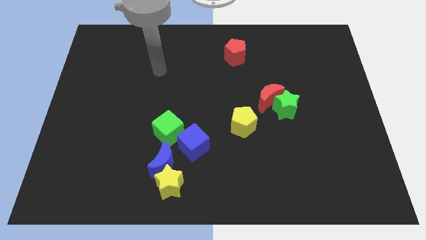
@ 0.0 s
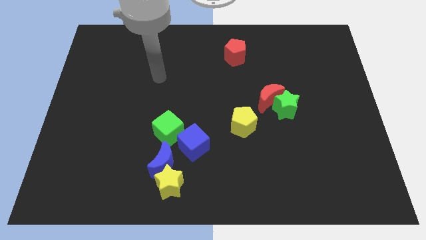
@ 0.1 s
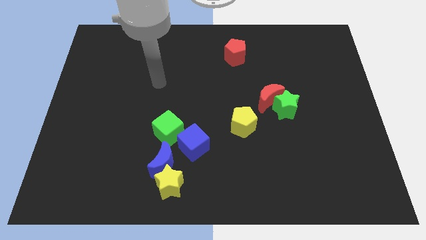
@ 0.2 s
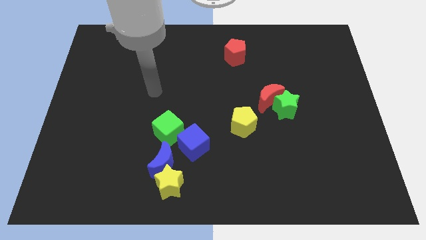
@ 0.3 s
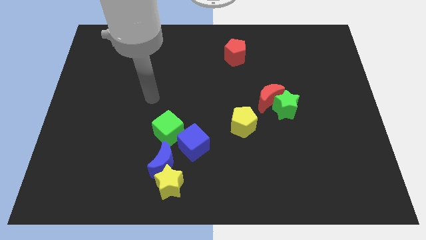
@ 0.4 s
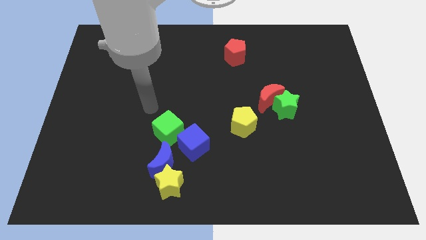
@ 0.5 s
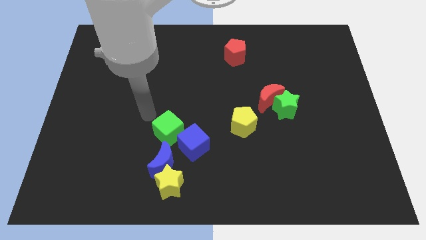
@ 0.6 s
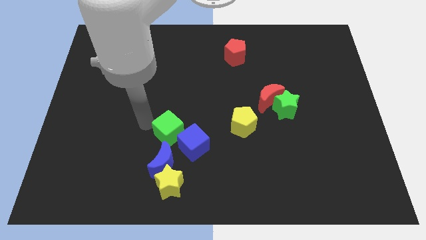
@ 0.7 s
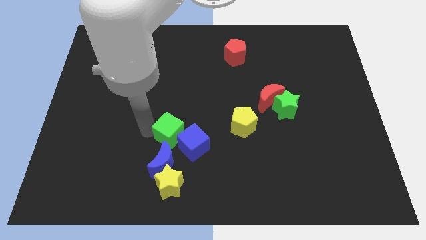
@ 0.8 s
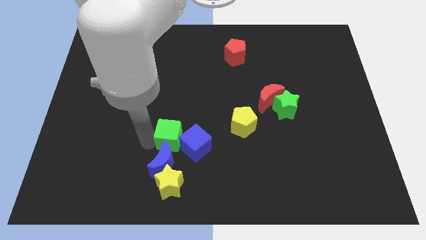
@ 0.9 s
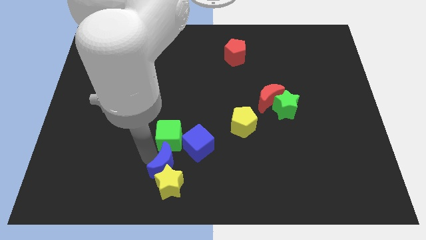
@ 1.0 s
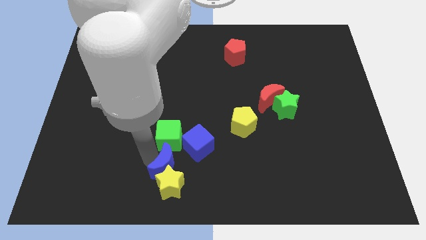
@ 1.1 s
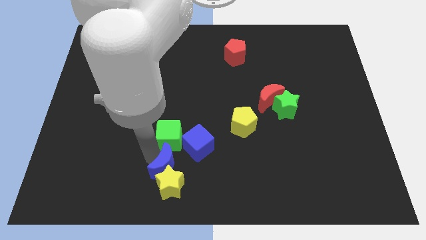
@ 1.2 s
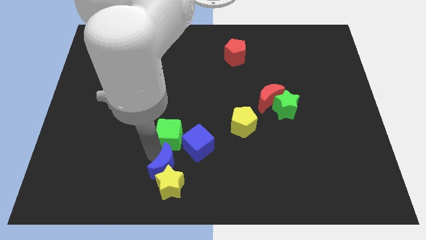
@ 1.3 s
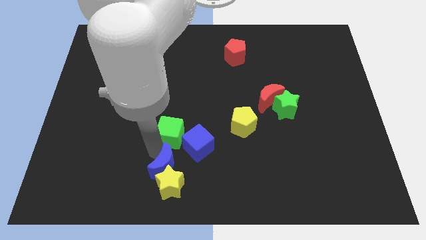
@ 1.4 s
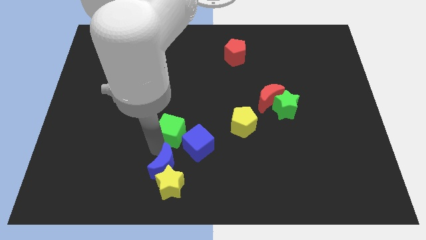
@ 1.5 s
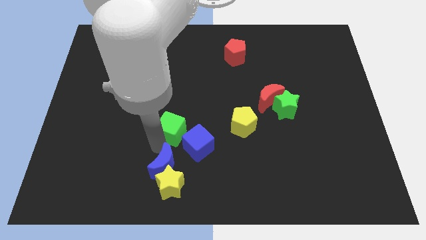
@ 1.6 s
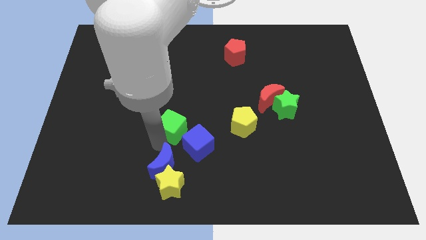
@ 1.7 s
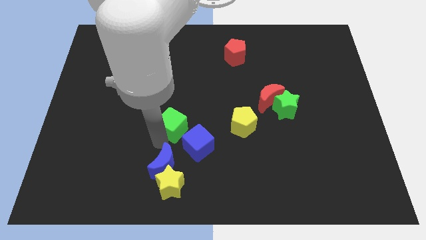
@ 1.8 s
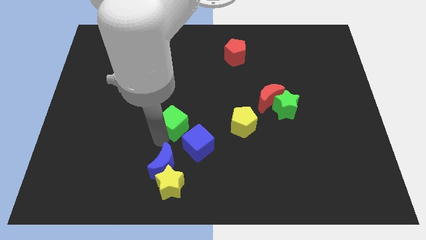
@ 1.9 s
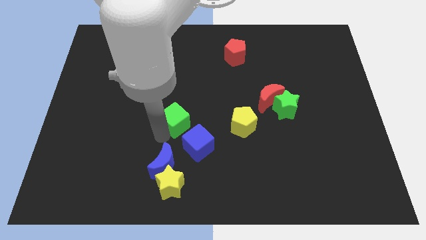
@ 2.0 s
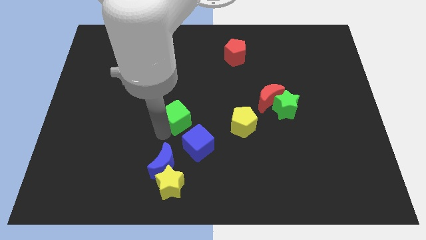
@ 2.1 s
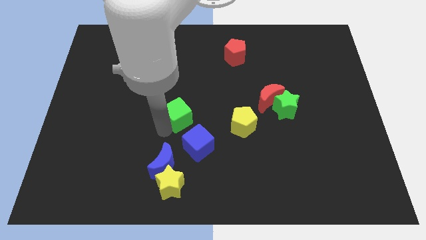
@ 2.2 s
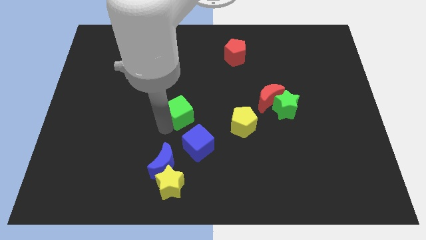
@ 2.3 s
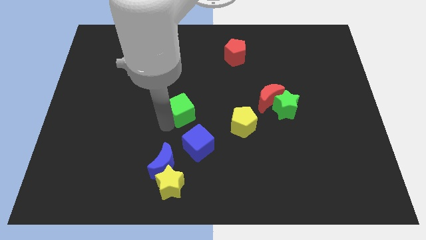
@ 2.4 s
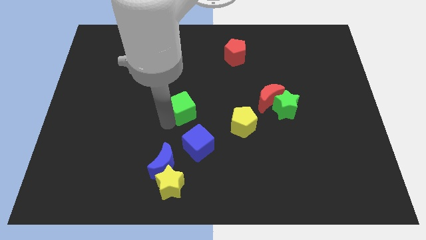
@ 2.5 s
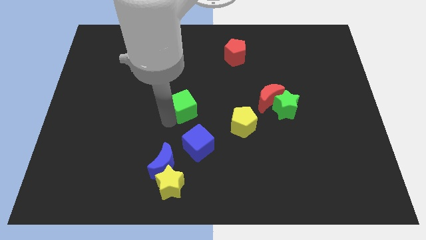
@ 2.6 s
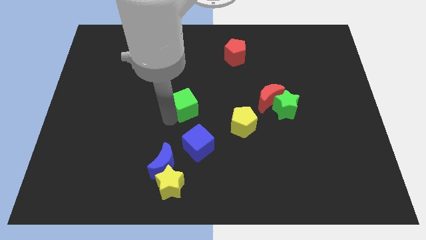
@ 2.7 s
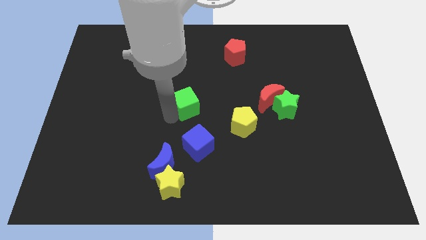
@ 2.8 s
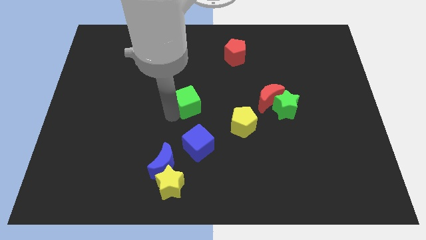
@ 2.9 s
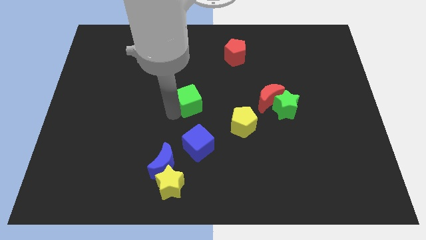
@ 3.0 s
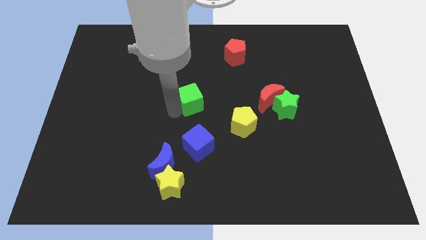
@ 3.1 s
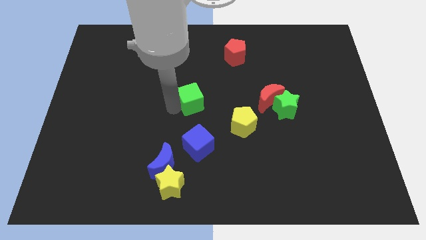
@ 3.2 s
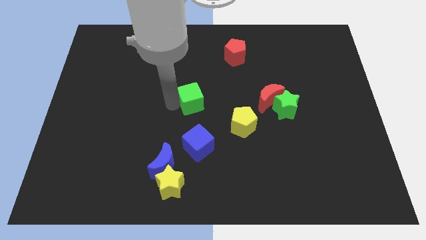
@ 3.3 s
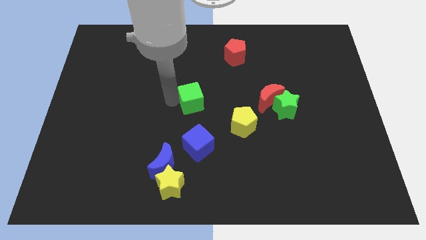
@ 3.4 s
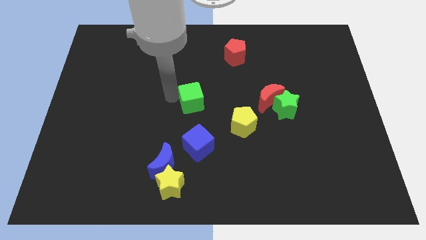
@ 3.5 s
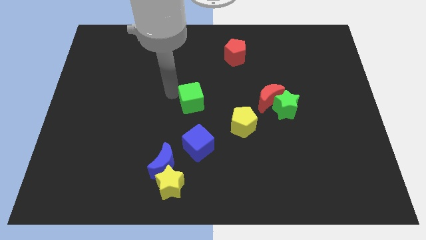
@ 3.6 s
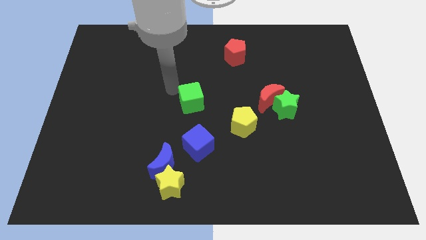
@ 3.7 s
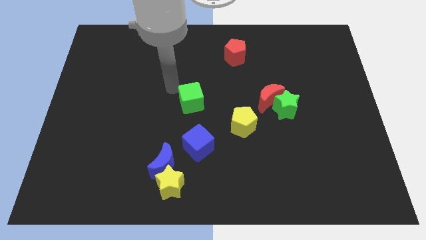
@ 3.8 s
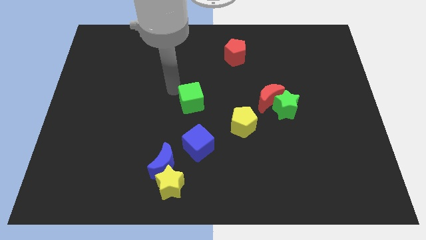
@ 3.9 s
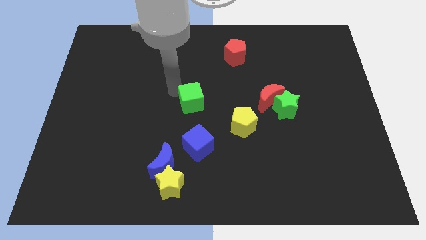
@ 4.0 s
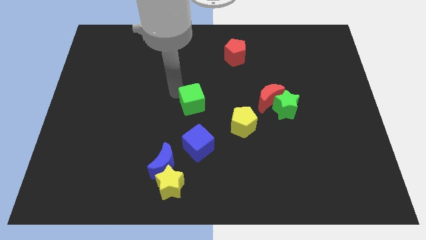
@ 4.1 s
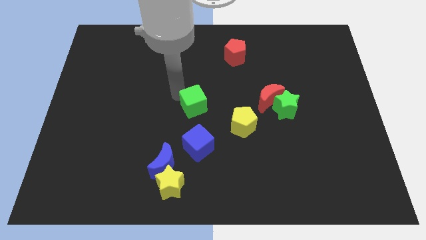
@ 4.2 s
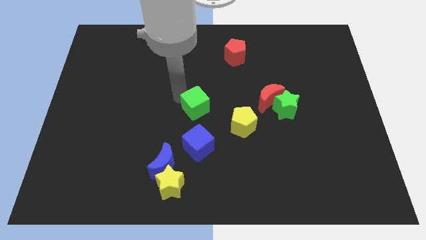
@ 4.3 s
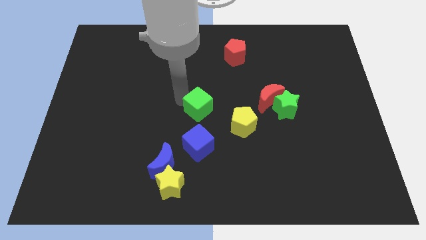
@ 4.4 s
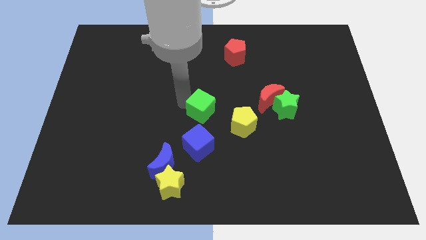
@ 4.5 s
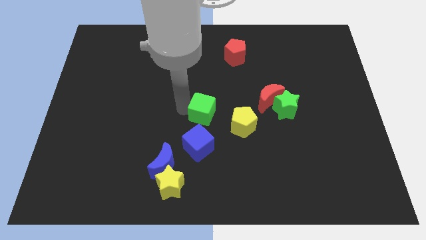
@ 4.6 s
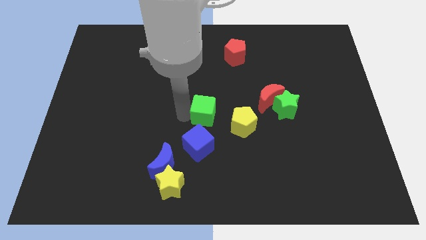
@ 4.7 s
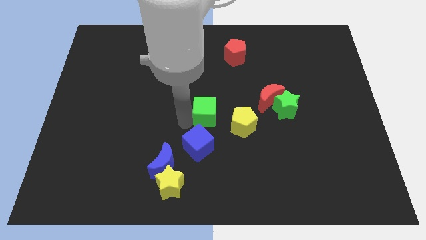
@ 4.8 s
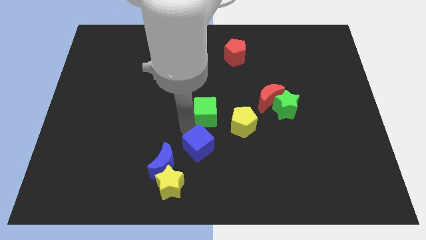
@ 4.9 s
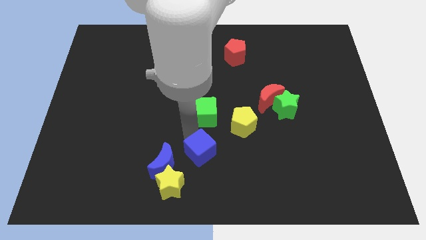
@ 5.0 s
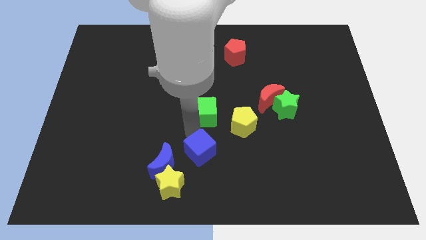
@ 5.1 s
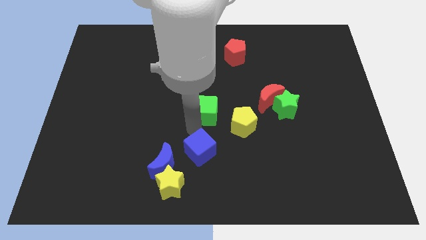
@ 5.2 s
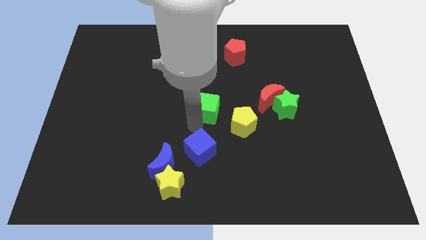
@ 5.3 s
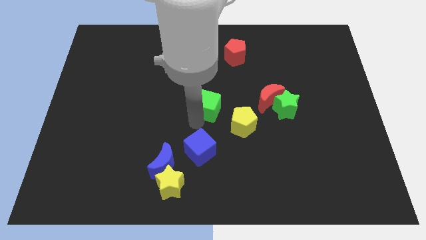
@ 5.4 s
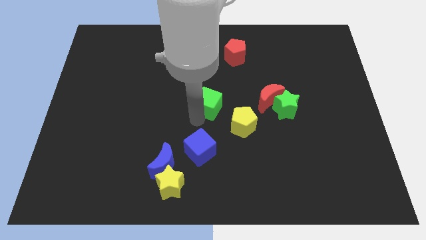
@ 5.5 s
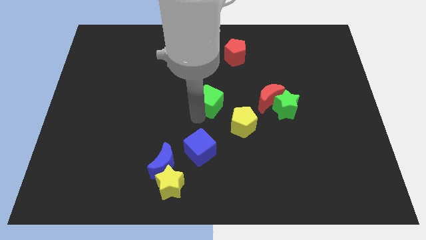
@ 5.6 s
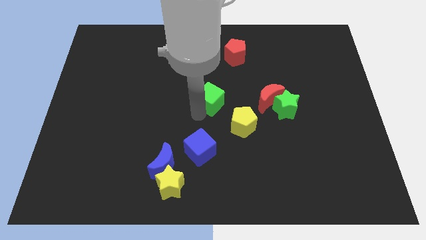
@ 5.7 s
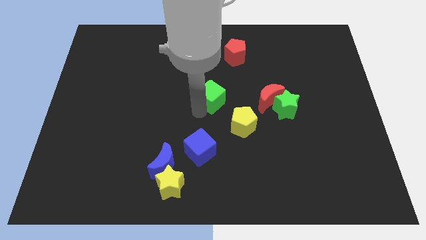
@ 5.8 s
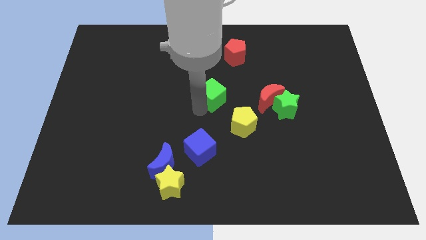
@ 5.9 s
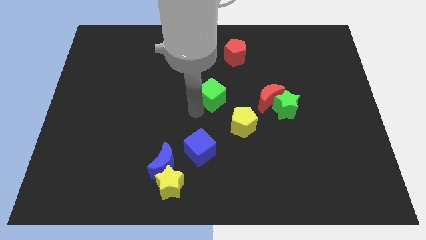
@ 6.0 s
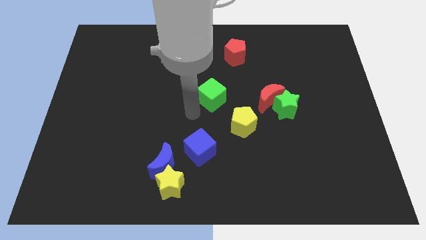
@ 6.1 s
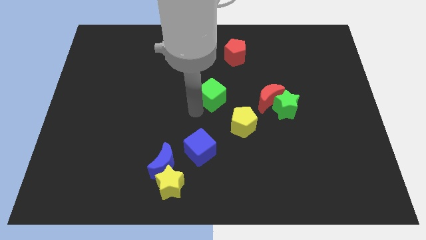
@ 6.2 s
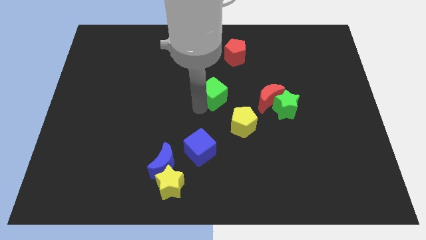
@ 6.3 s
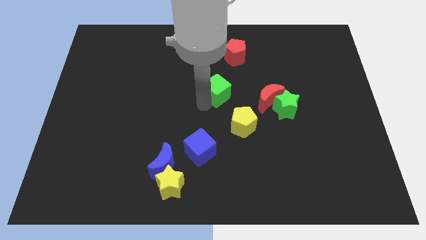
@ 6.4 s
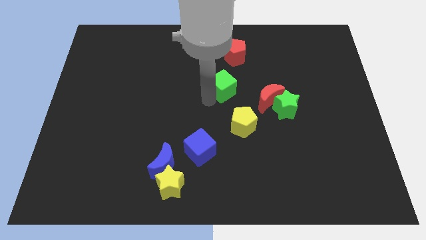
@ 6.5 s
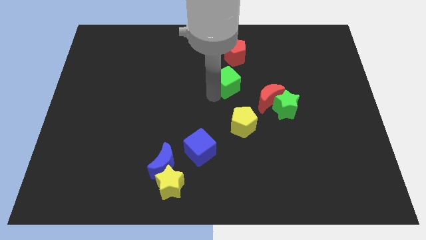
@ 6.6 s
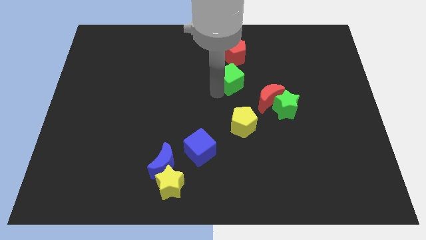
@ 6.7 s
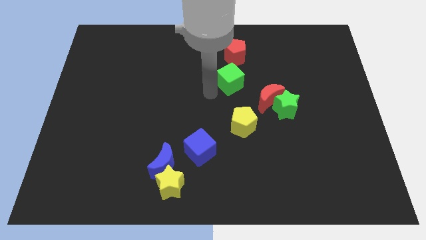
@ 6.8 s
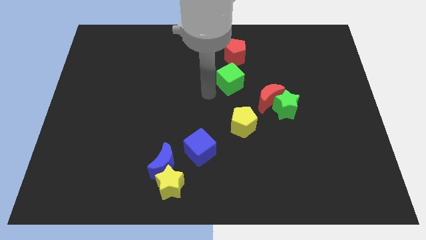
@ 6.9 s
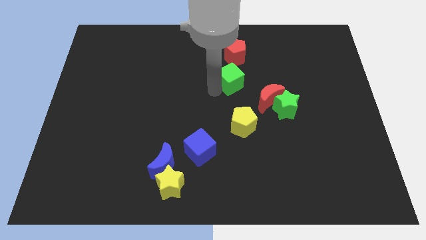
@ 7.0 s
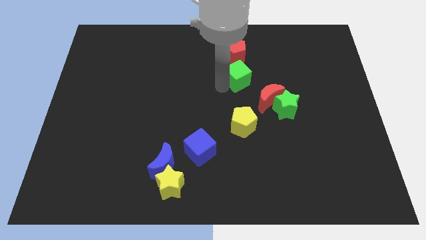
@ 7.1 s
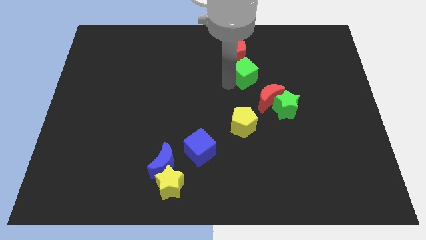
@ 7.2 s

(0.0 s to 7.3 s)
put the green cube to the bottom right side of the red pentagon

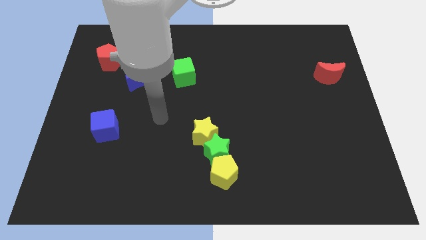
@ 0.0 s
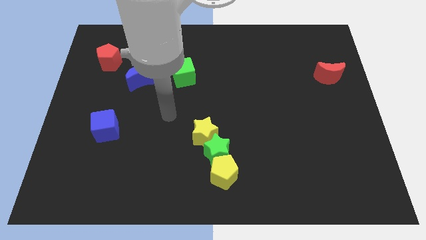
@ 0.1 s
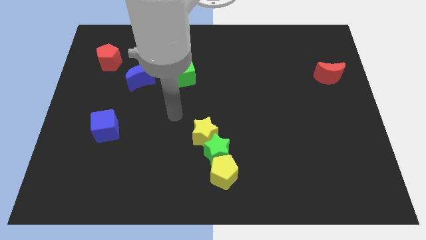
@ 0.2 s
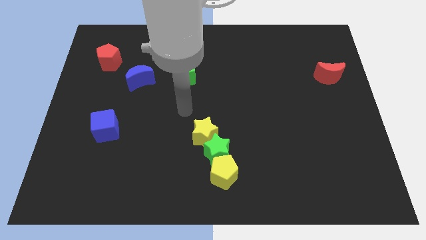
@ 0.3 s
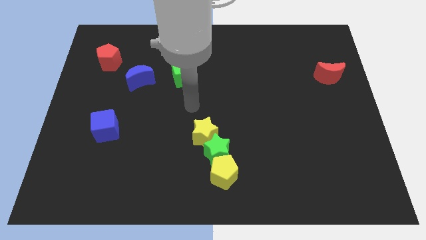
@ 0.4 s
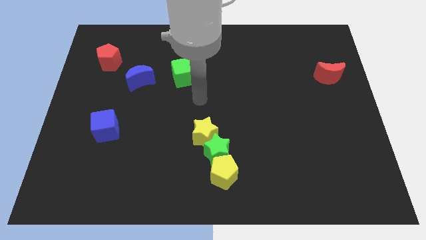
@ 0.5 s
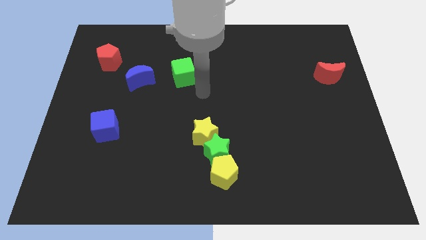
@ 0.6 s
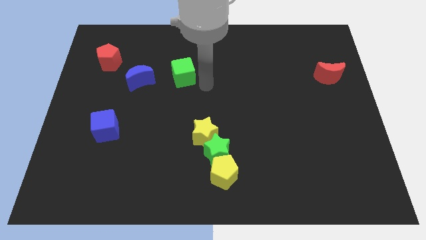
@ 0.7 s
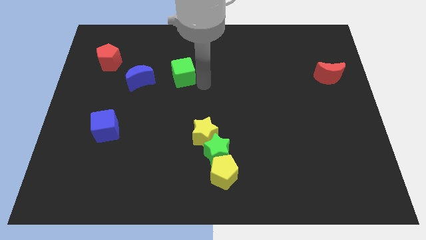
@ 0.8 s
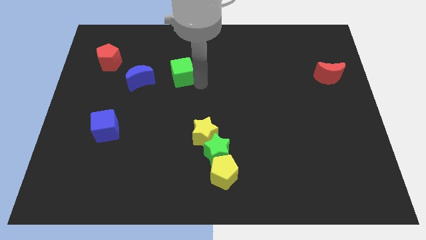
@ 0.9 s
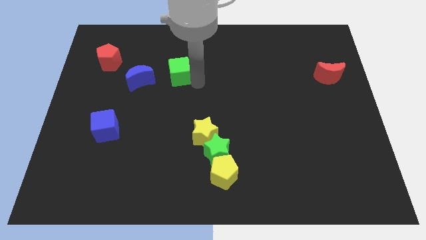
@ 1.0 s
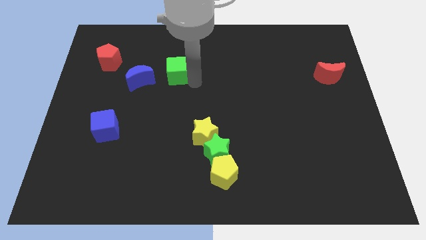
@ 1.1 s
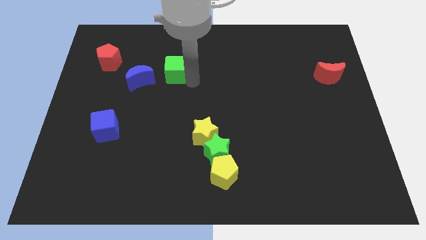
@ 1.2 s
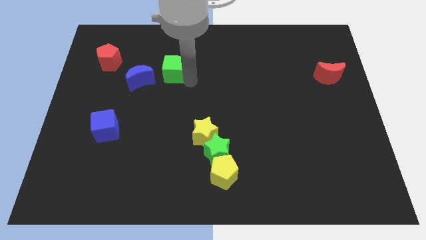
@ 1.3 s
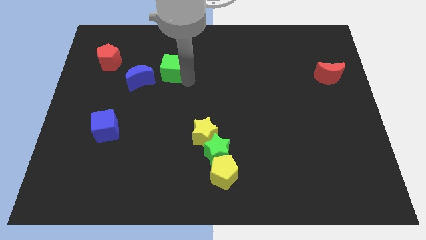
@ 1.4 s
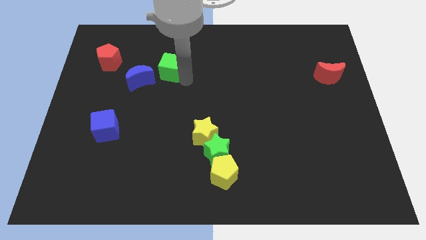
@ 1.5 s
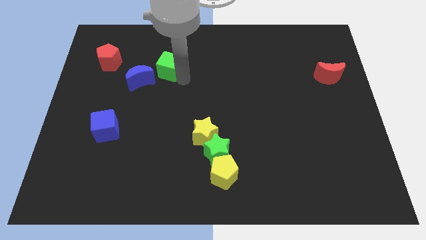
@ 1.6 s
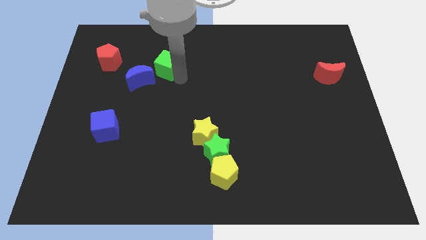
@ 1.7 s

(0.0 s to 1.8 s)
put the green cube to the right side of the red pentagon
